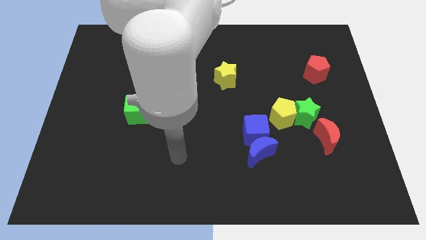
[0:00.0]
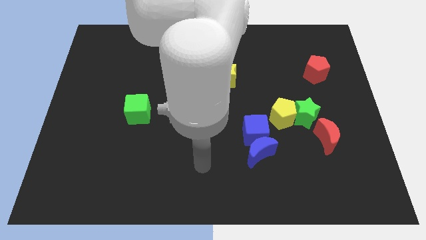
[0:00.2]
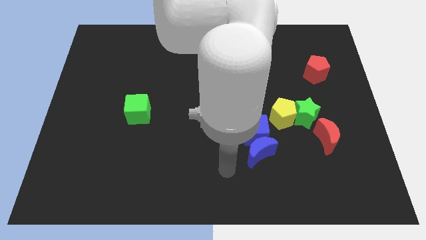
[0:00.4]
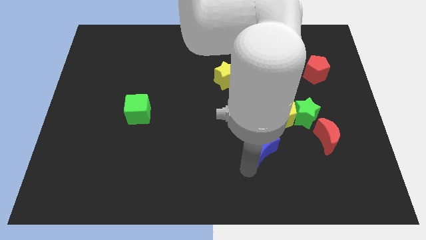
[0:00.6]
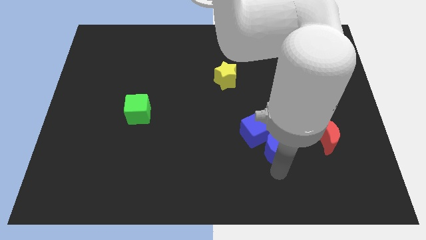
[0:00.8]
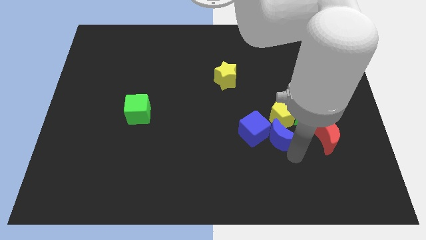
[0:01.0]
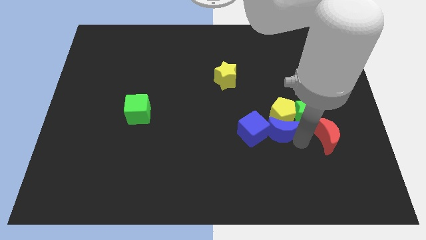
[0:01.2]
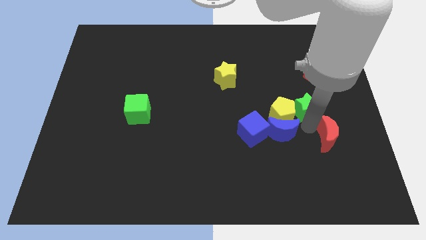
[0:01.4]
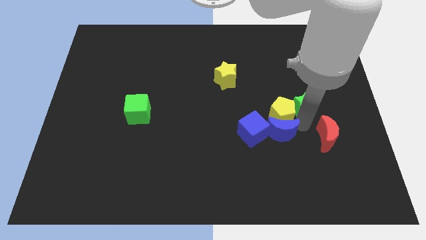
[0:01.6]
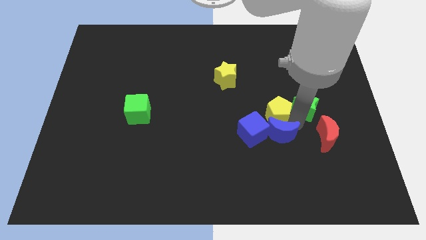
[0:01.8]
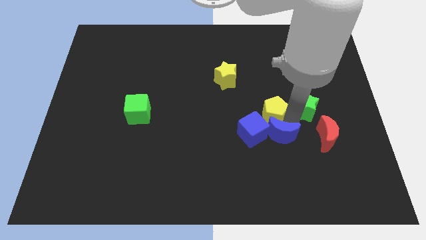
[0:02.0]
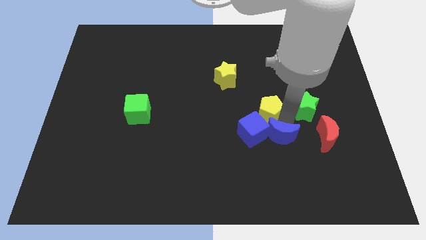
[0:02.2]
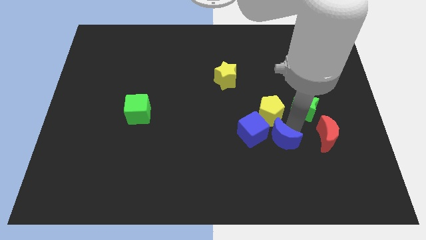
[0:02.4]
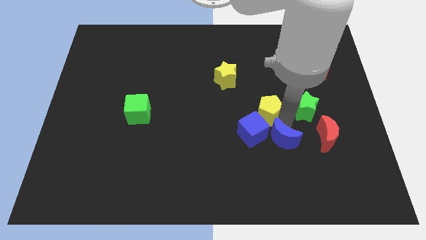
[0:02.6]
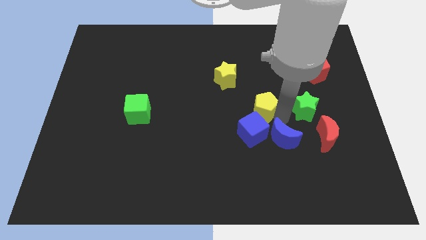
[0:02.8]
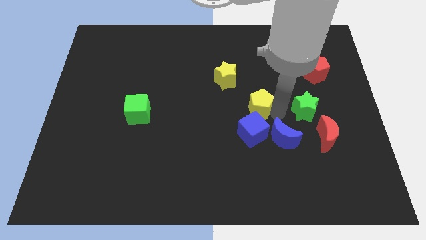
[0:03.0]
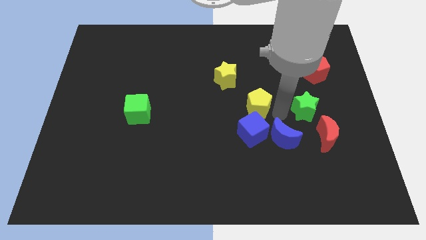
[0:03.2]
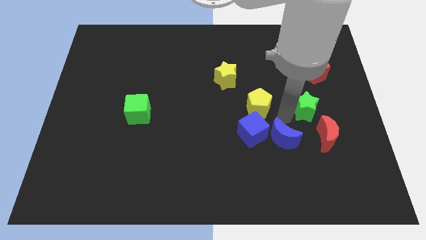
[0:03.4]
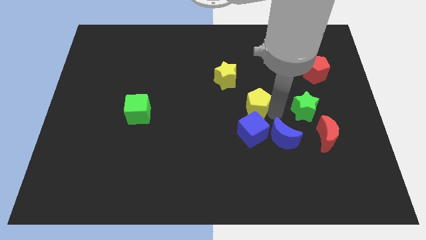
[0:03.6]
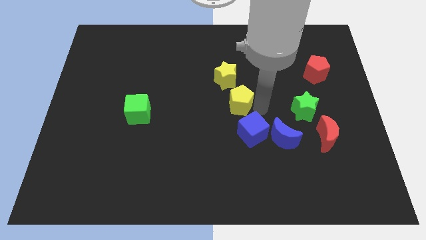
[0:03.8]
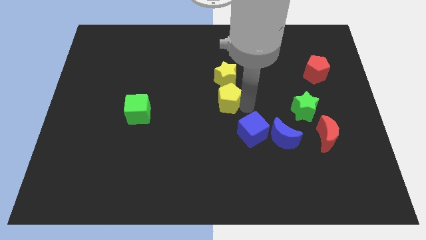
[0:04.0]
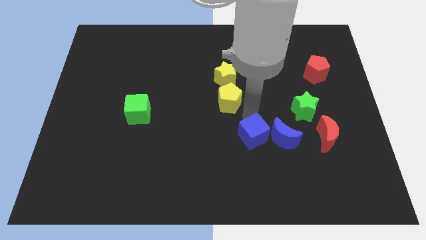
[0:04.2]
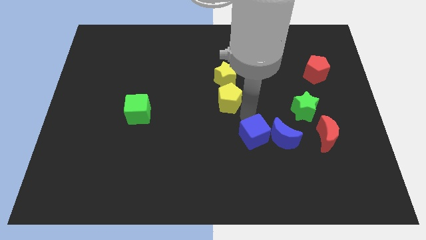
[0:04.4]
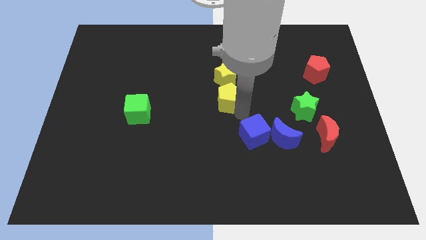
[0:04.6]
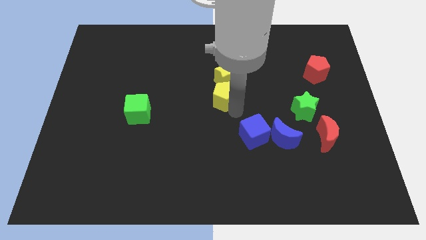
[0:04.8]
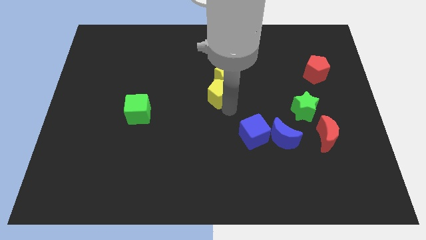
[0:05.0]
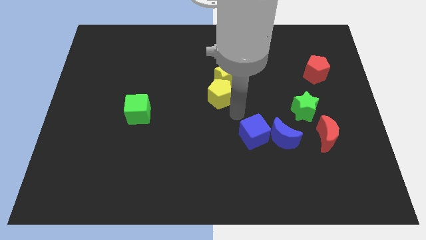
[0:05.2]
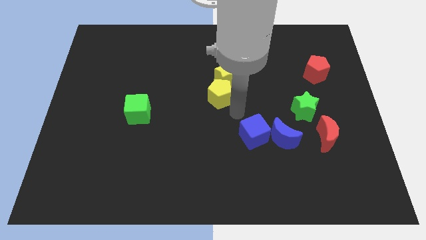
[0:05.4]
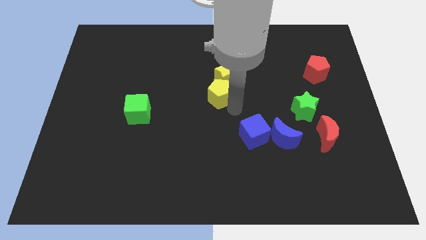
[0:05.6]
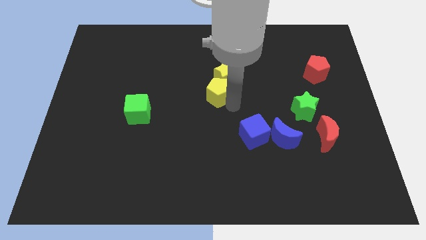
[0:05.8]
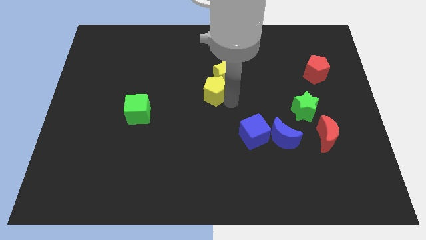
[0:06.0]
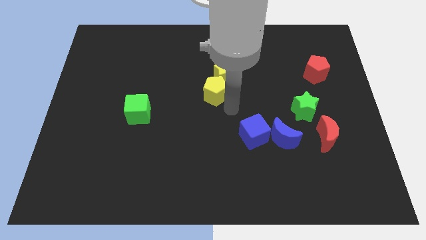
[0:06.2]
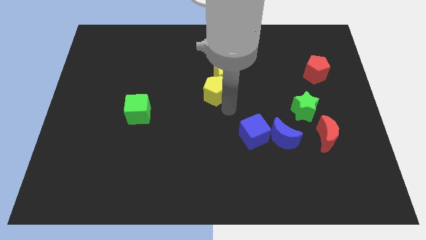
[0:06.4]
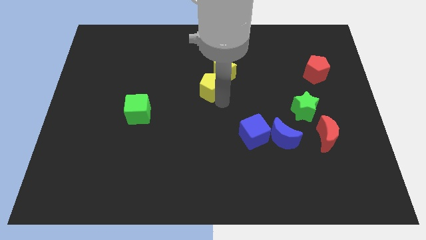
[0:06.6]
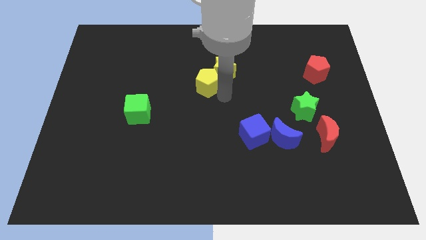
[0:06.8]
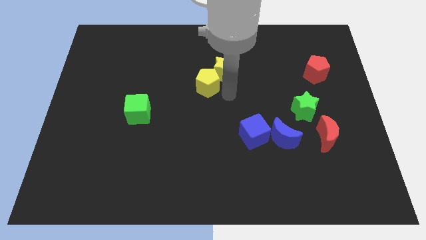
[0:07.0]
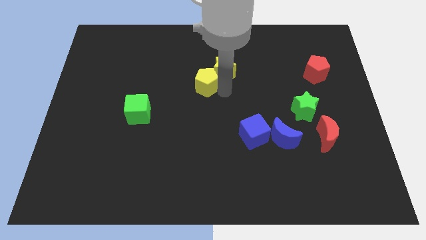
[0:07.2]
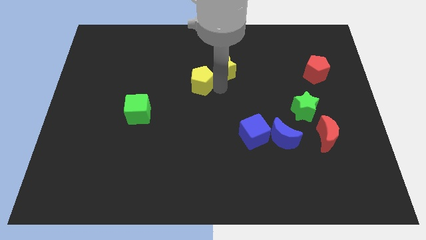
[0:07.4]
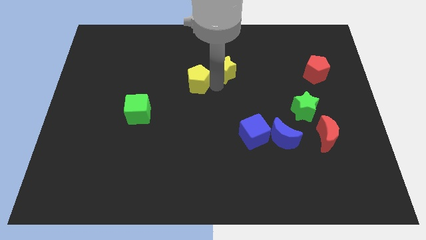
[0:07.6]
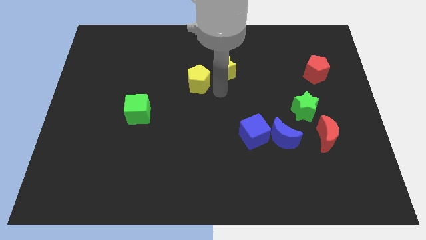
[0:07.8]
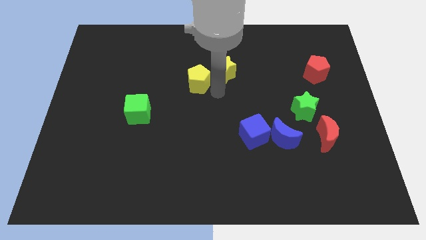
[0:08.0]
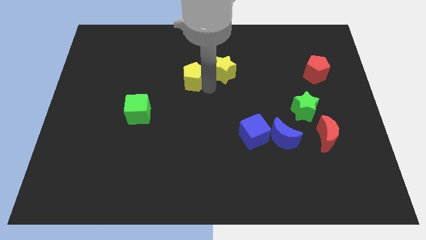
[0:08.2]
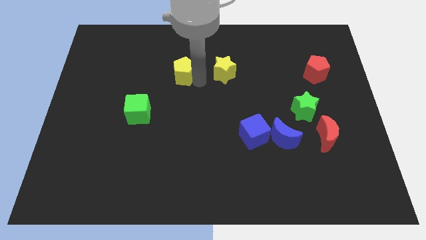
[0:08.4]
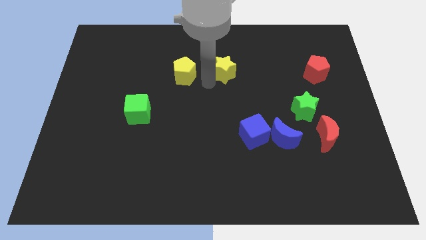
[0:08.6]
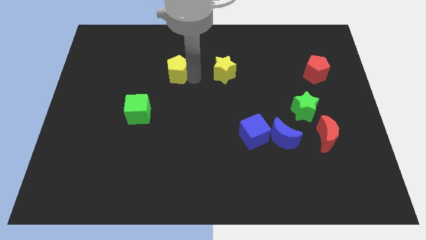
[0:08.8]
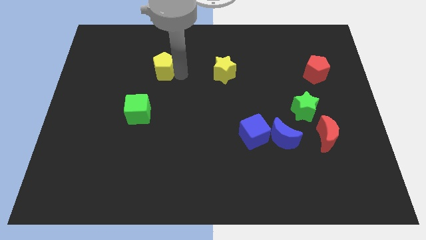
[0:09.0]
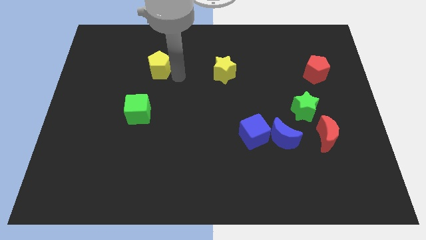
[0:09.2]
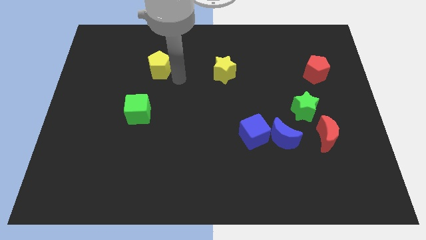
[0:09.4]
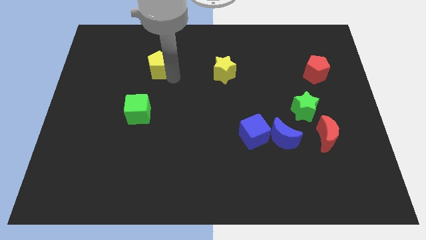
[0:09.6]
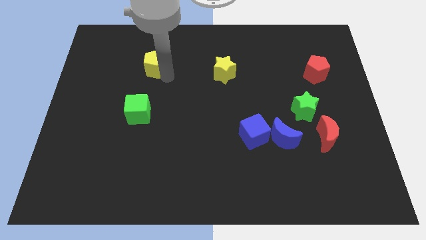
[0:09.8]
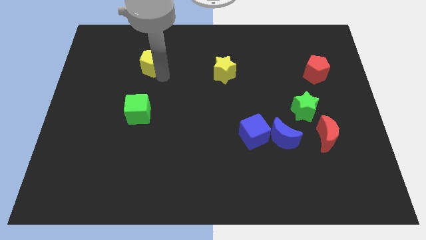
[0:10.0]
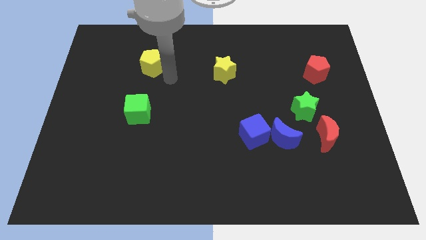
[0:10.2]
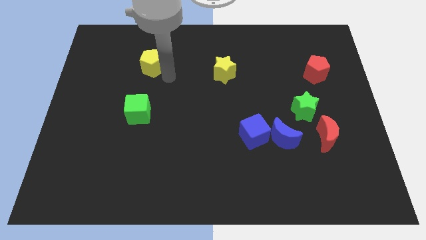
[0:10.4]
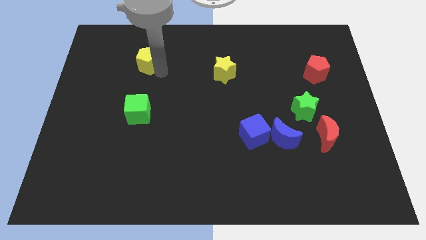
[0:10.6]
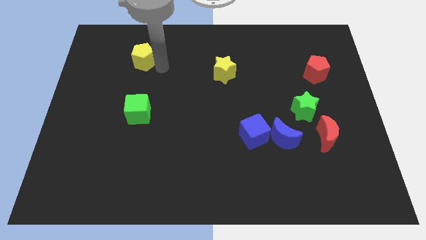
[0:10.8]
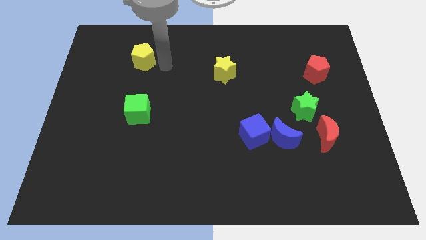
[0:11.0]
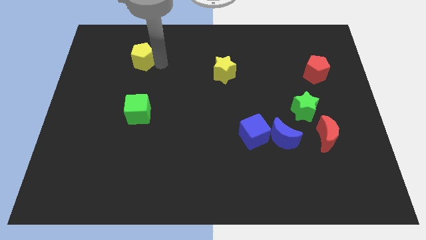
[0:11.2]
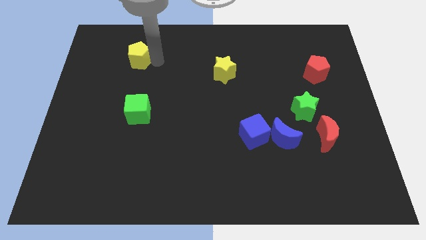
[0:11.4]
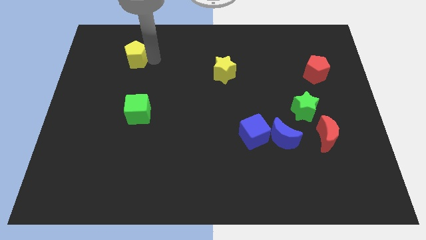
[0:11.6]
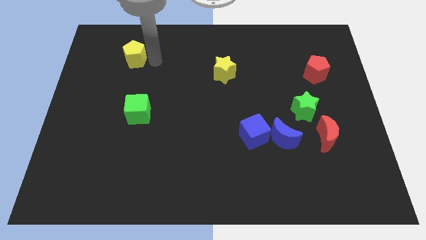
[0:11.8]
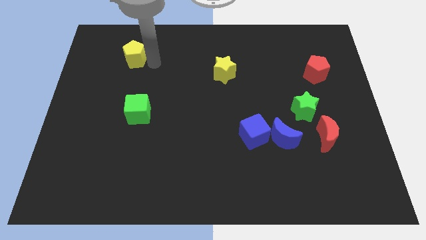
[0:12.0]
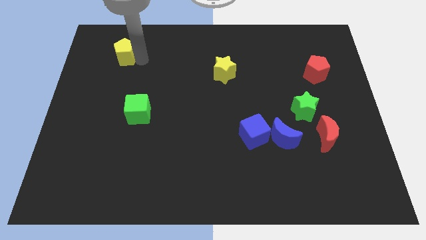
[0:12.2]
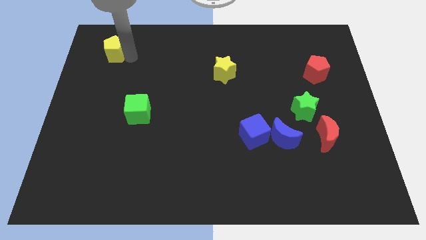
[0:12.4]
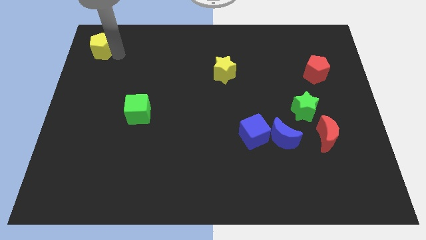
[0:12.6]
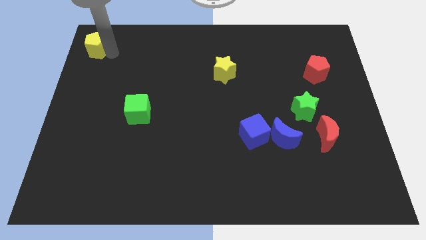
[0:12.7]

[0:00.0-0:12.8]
move the yellow pentagon to the top left

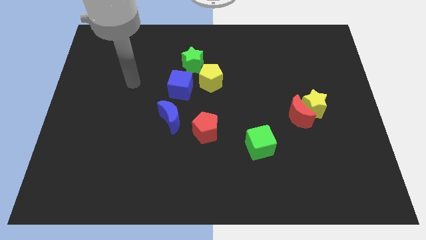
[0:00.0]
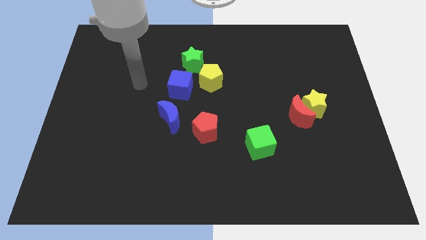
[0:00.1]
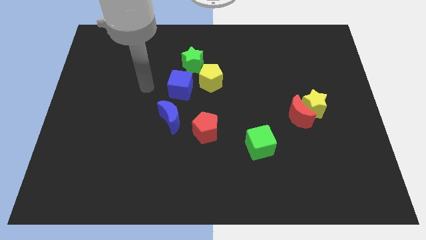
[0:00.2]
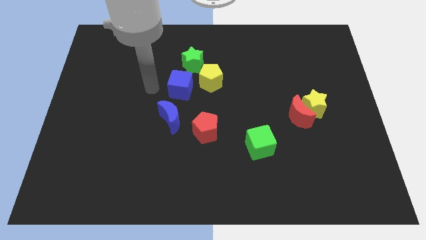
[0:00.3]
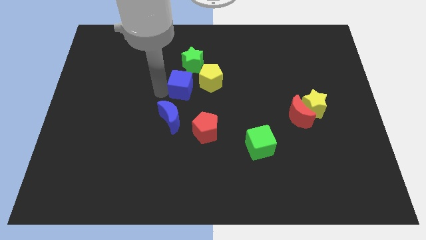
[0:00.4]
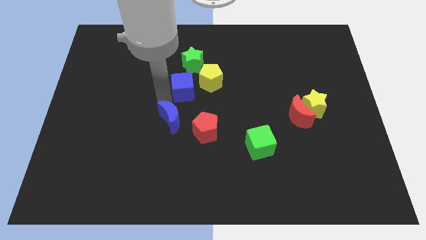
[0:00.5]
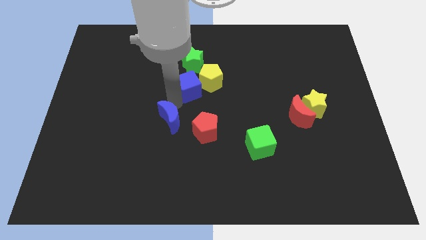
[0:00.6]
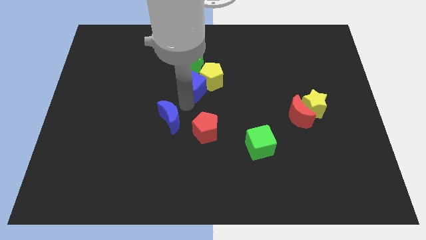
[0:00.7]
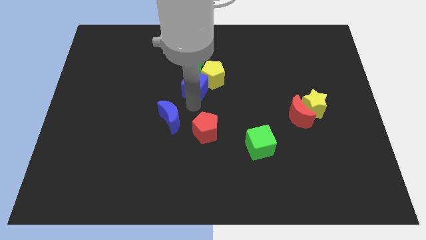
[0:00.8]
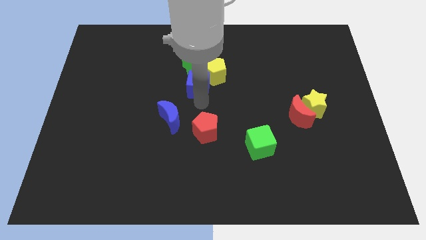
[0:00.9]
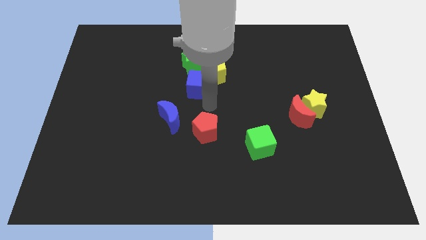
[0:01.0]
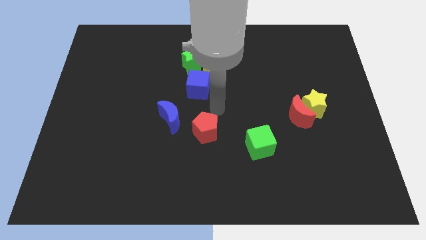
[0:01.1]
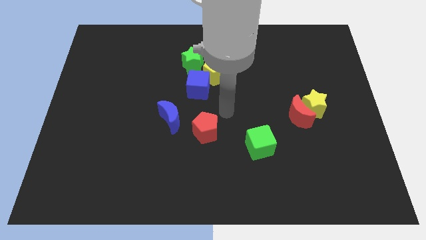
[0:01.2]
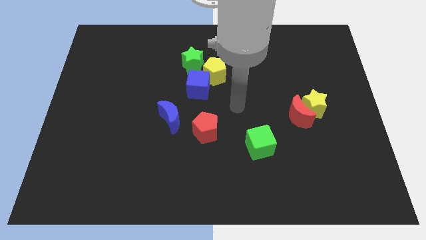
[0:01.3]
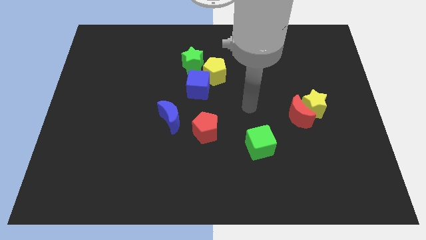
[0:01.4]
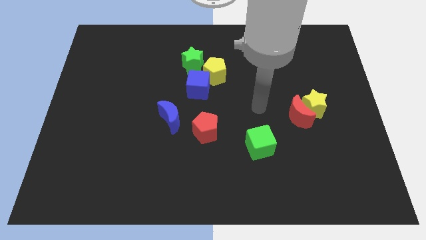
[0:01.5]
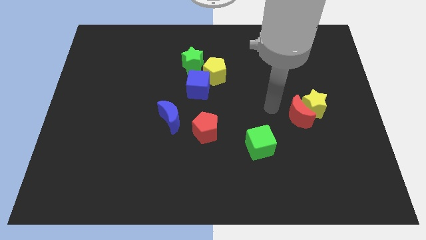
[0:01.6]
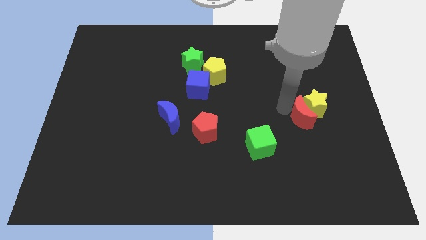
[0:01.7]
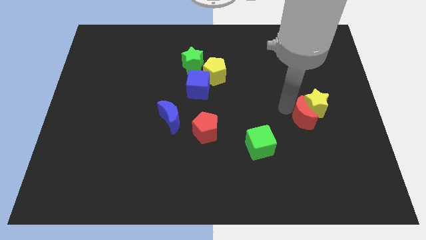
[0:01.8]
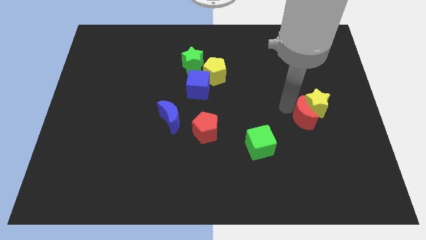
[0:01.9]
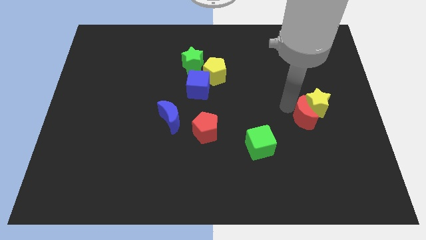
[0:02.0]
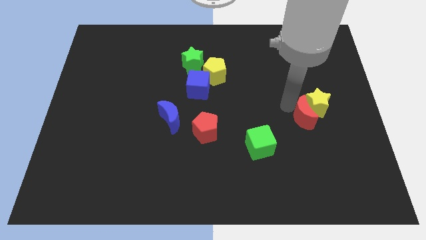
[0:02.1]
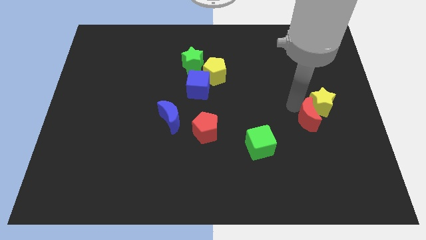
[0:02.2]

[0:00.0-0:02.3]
put the yellow star to the right side of the board
